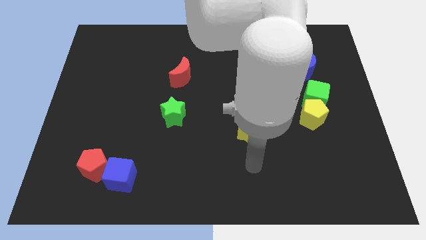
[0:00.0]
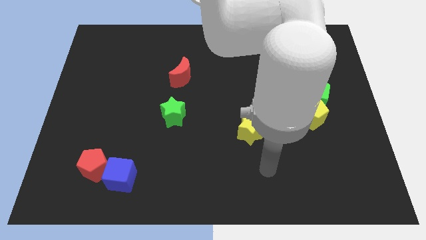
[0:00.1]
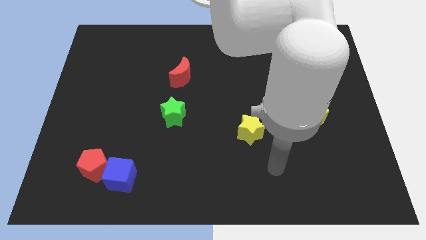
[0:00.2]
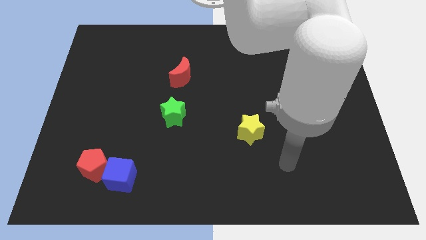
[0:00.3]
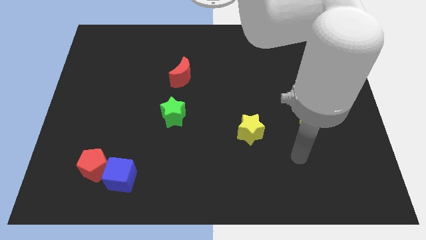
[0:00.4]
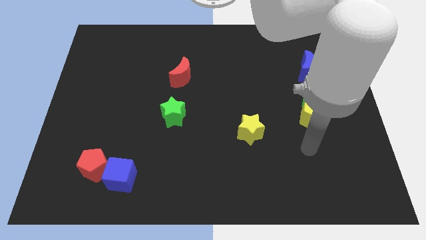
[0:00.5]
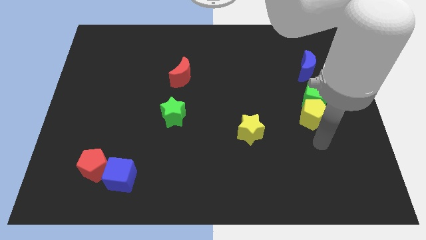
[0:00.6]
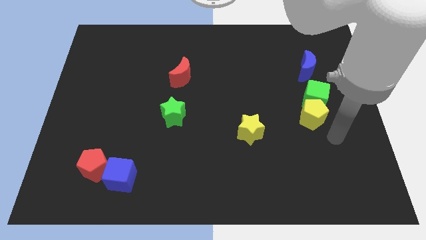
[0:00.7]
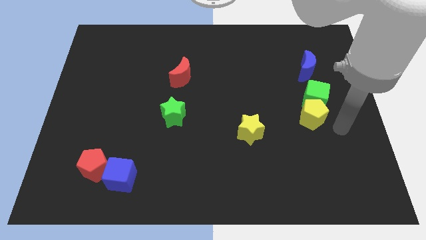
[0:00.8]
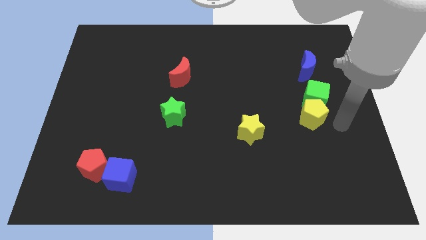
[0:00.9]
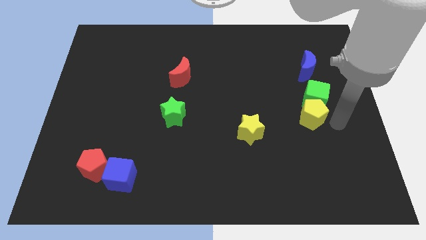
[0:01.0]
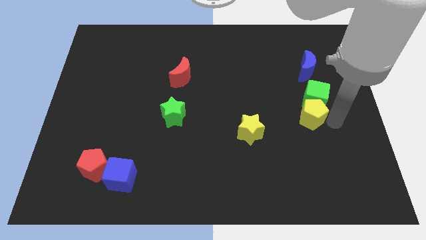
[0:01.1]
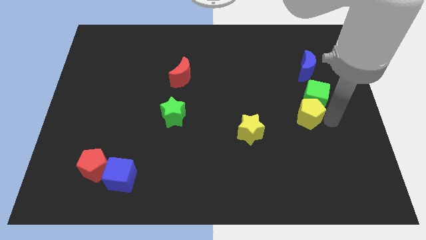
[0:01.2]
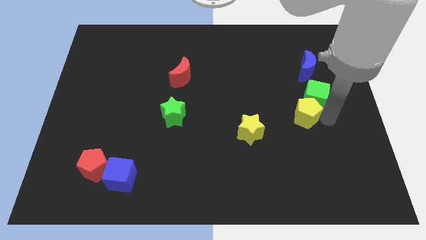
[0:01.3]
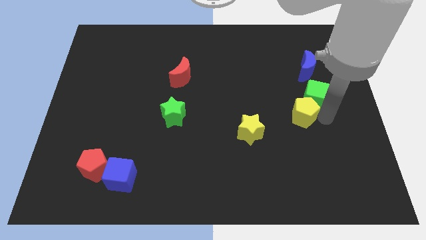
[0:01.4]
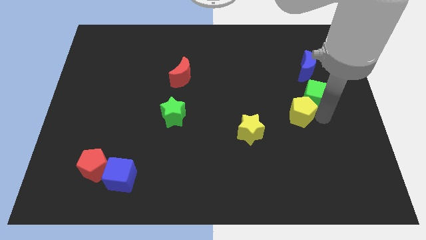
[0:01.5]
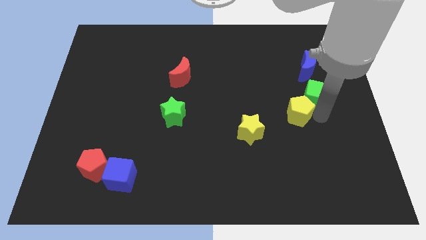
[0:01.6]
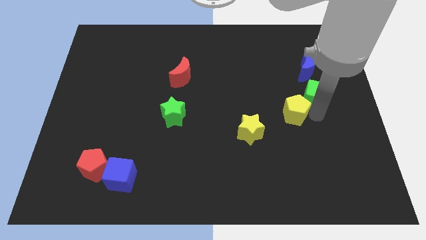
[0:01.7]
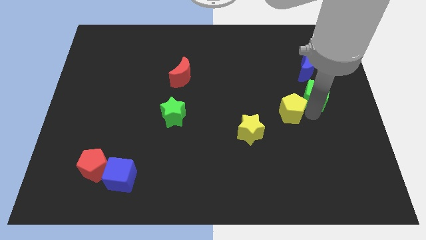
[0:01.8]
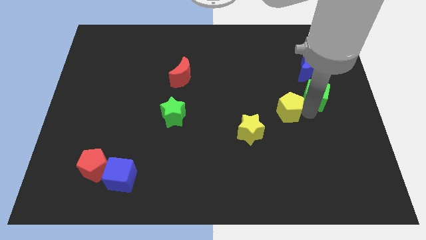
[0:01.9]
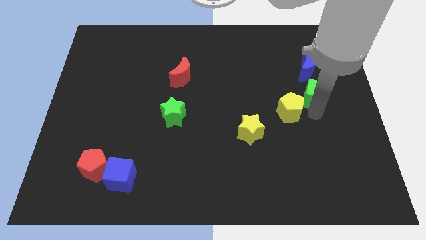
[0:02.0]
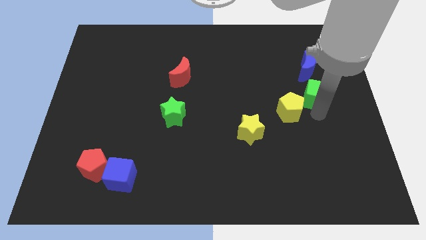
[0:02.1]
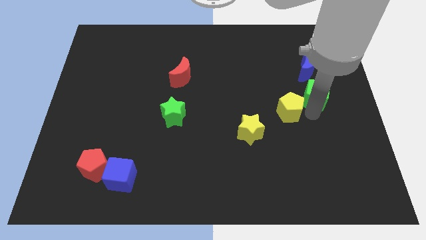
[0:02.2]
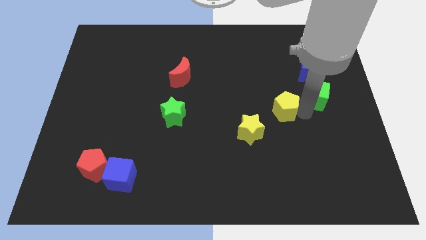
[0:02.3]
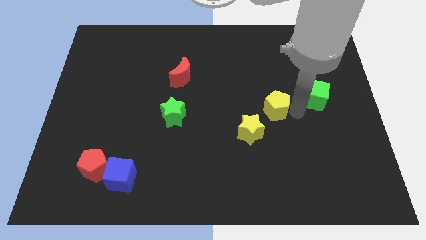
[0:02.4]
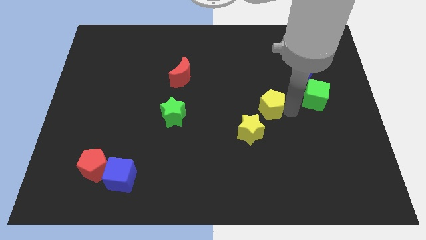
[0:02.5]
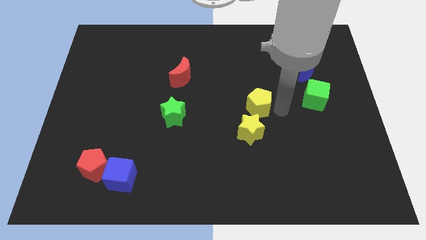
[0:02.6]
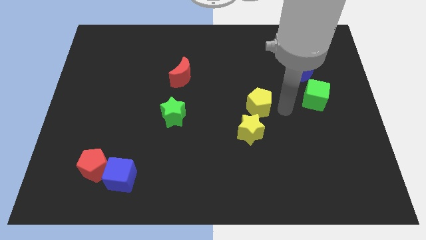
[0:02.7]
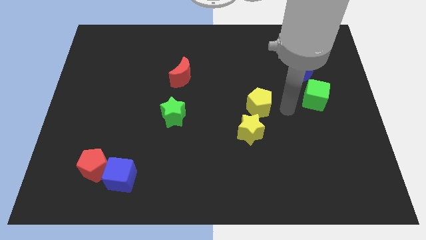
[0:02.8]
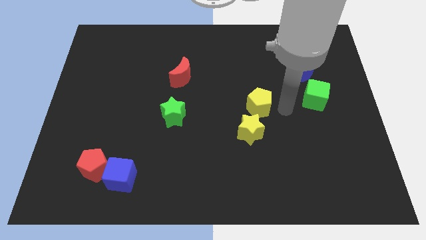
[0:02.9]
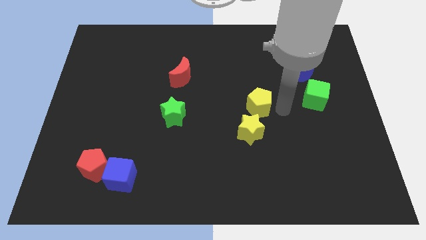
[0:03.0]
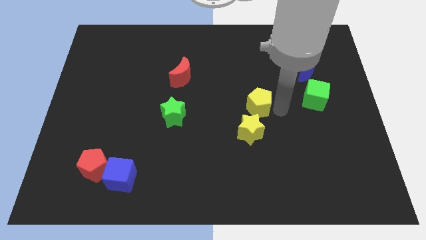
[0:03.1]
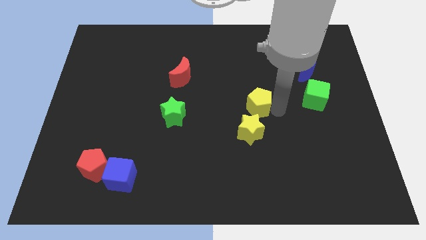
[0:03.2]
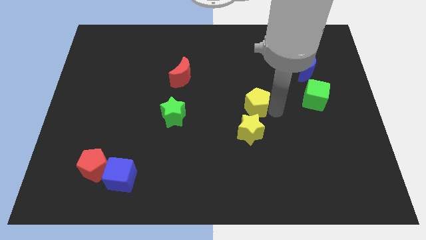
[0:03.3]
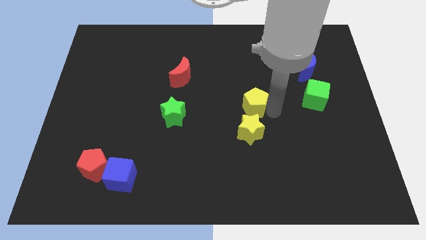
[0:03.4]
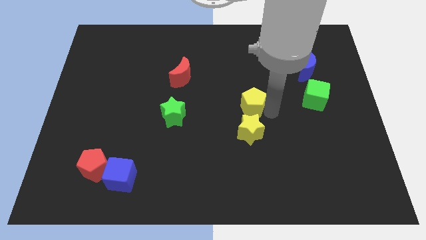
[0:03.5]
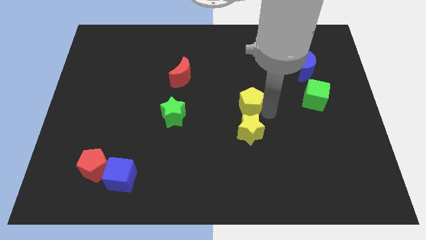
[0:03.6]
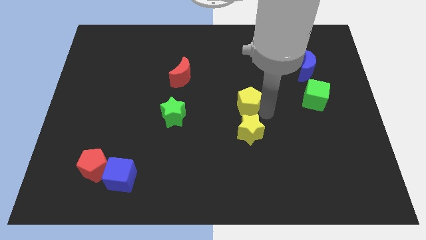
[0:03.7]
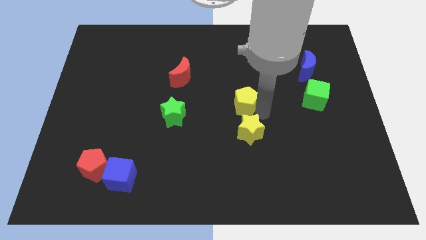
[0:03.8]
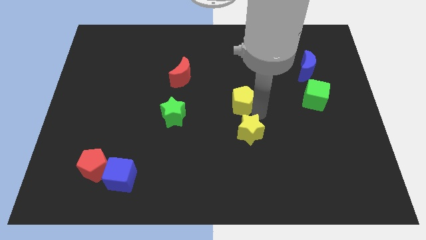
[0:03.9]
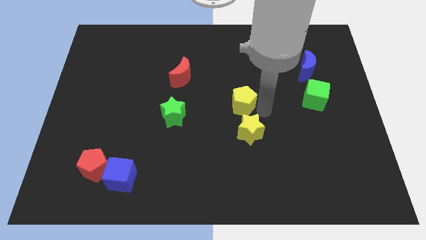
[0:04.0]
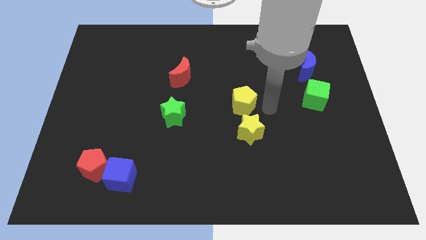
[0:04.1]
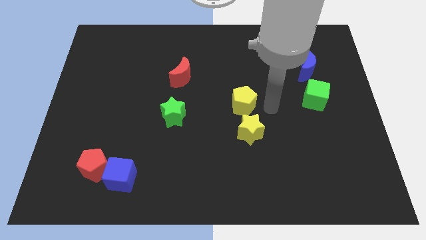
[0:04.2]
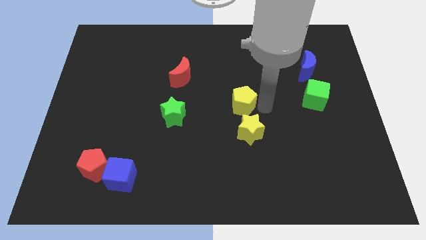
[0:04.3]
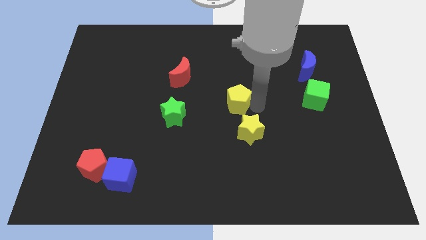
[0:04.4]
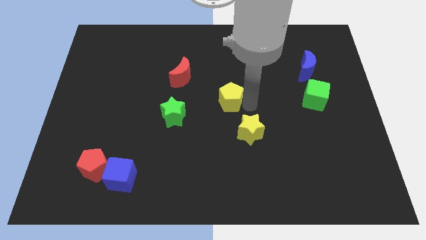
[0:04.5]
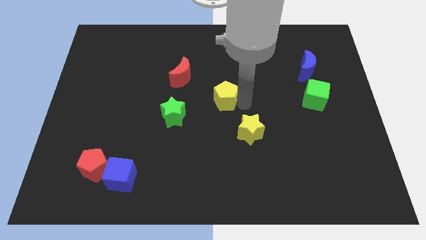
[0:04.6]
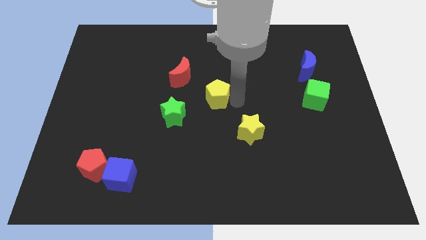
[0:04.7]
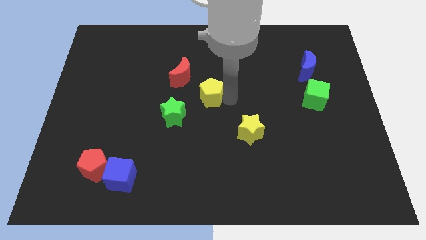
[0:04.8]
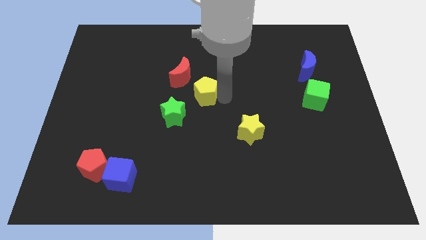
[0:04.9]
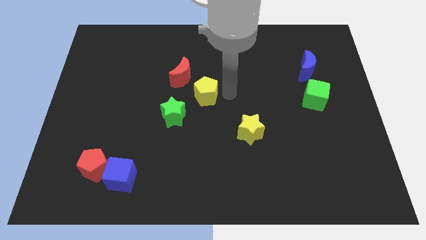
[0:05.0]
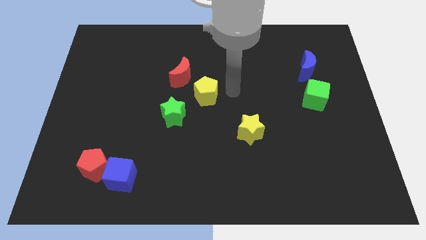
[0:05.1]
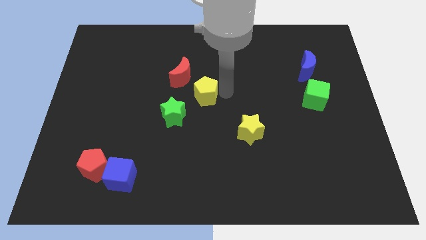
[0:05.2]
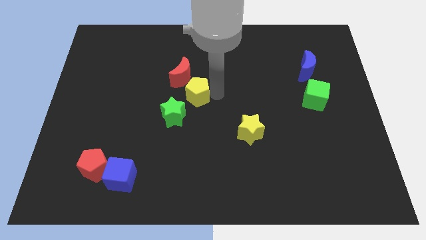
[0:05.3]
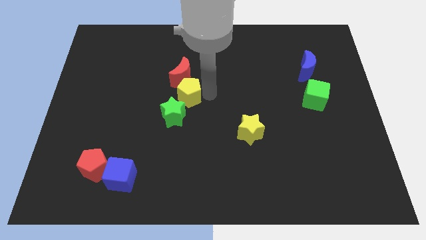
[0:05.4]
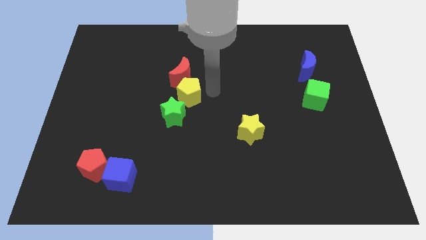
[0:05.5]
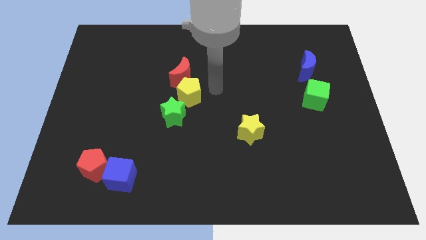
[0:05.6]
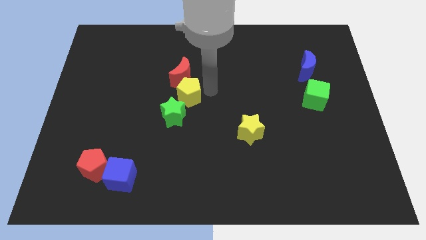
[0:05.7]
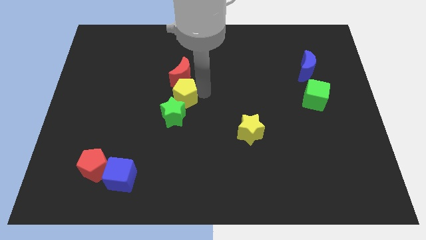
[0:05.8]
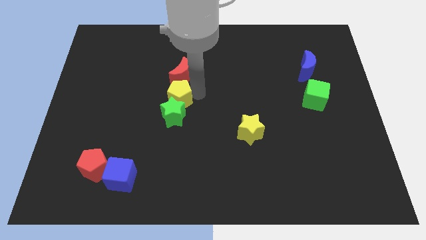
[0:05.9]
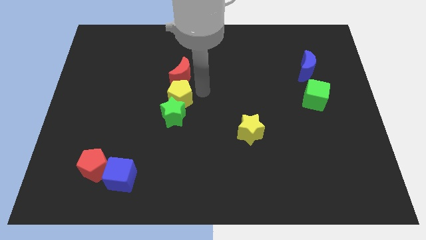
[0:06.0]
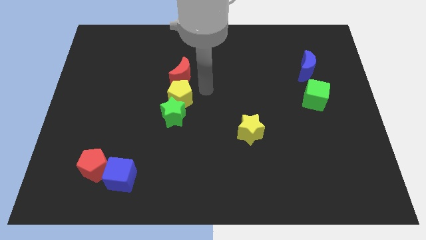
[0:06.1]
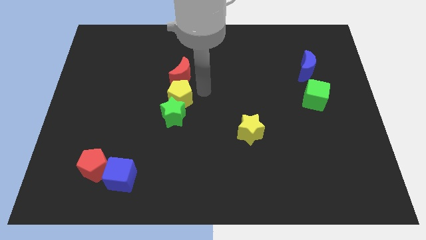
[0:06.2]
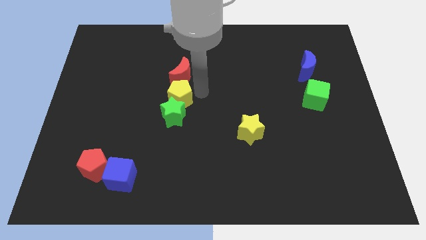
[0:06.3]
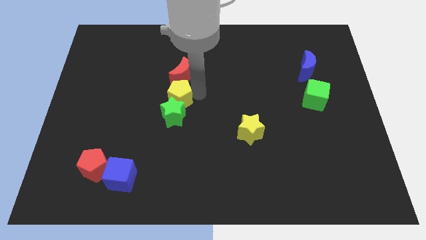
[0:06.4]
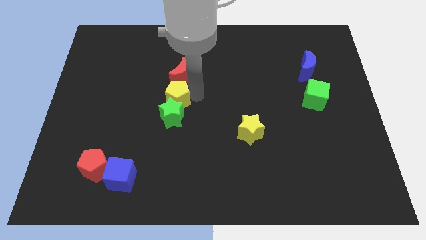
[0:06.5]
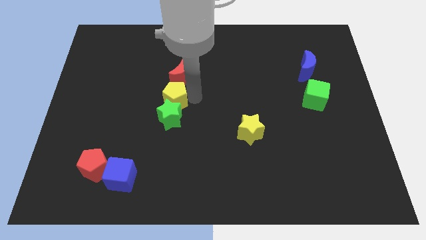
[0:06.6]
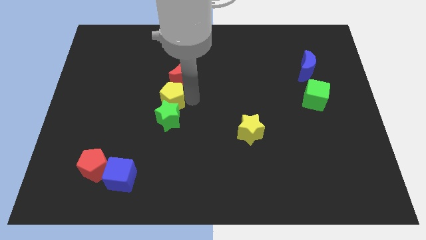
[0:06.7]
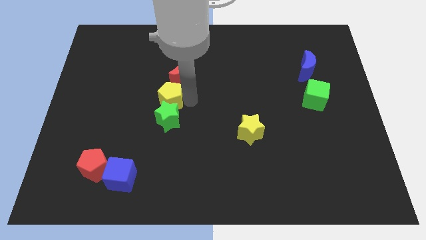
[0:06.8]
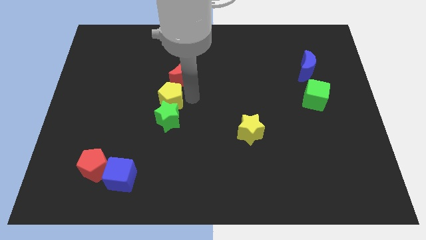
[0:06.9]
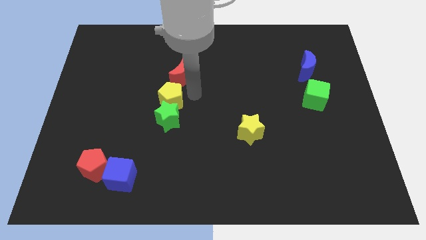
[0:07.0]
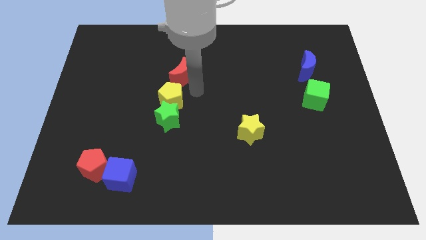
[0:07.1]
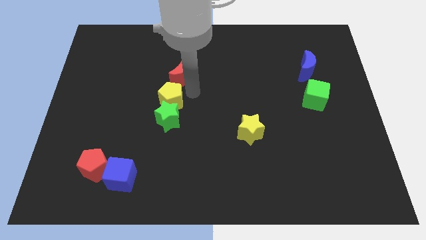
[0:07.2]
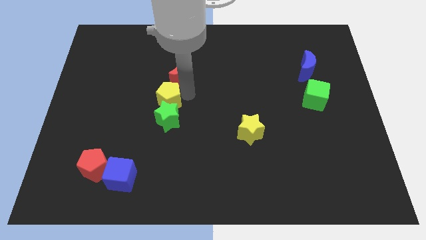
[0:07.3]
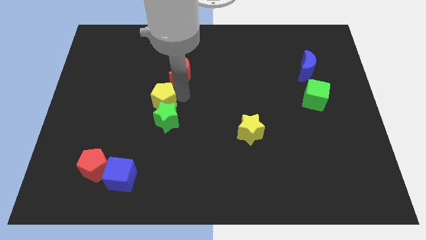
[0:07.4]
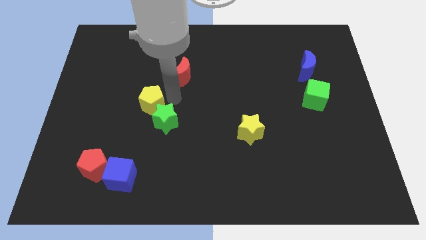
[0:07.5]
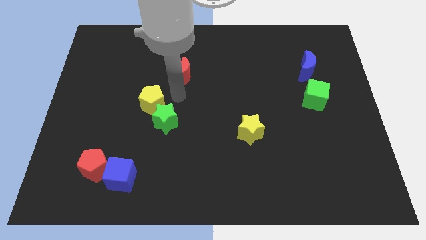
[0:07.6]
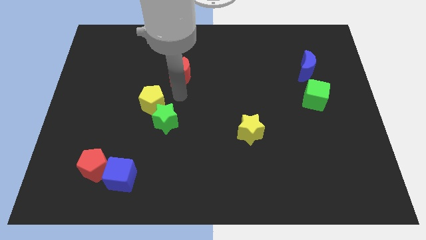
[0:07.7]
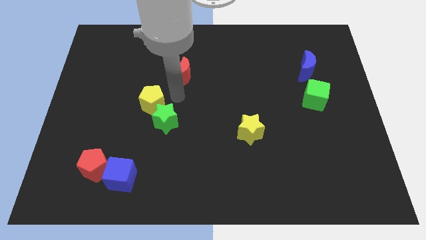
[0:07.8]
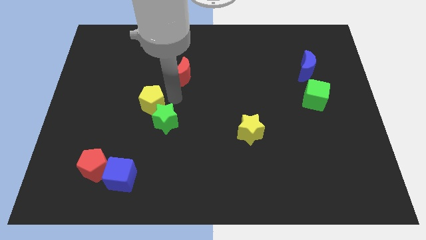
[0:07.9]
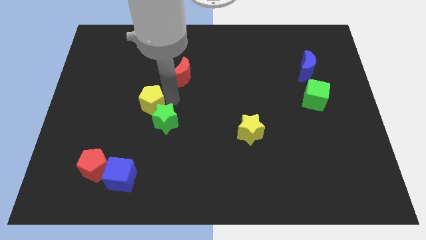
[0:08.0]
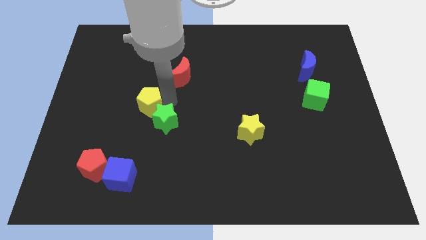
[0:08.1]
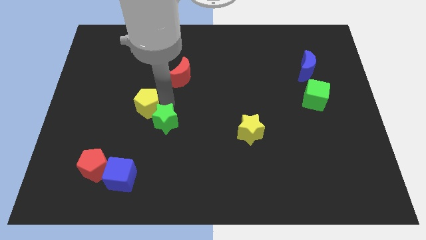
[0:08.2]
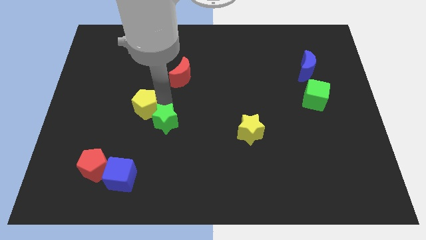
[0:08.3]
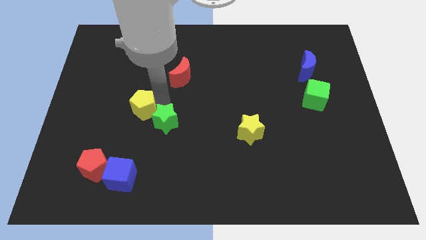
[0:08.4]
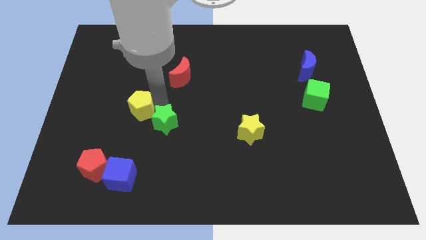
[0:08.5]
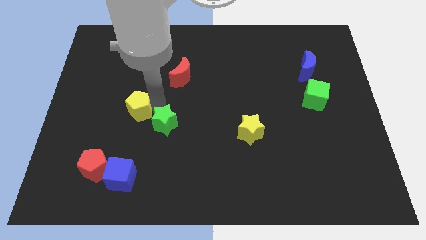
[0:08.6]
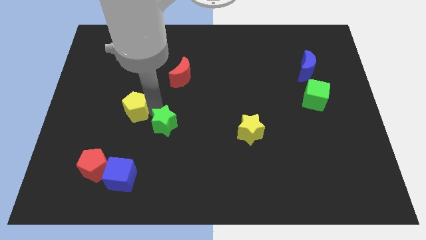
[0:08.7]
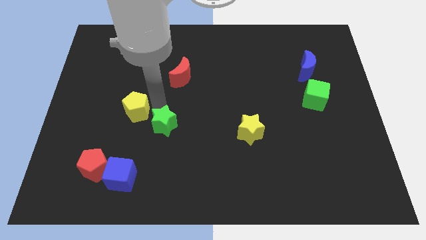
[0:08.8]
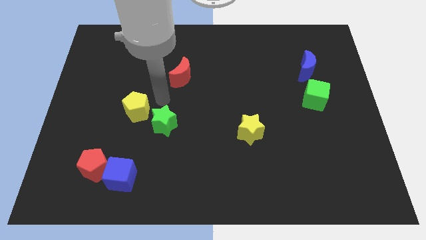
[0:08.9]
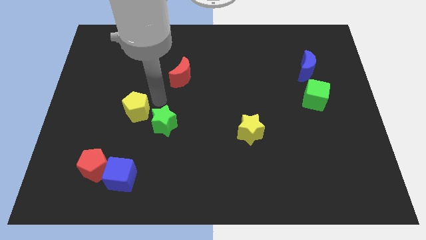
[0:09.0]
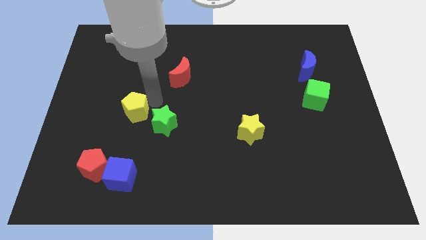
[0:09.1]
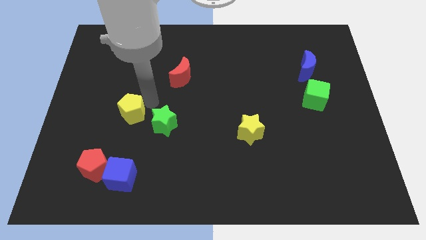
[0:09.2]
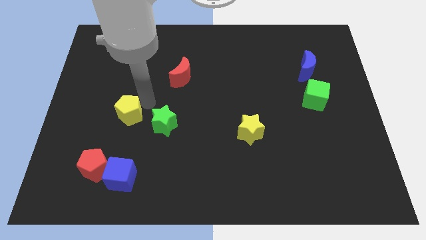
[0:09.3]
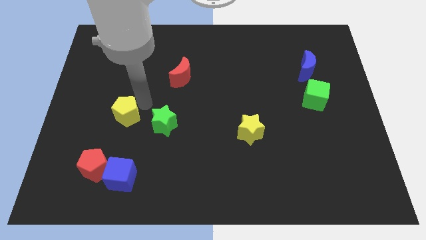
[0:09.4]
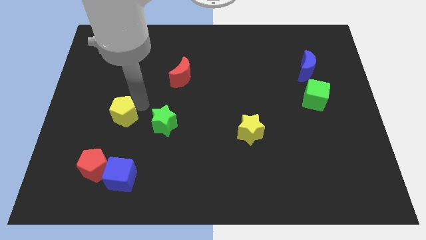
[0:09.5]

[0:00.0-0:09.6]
slide the yellow pentagon to the top of the red pentagon
